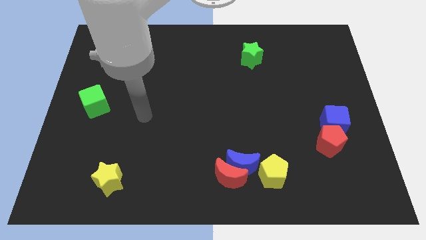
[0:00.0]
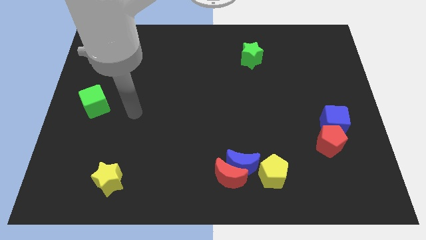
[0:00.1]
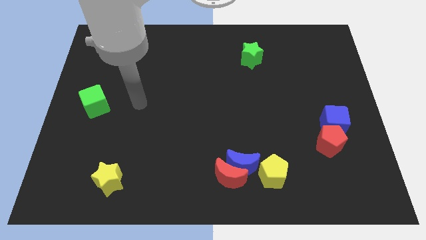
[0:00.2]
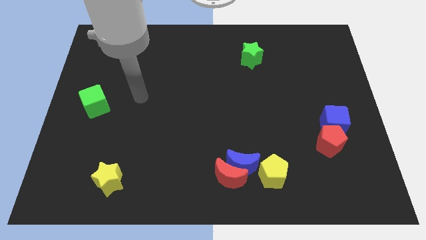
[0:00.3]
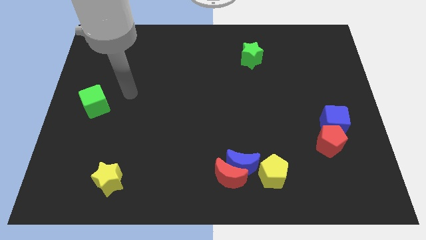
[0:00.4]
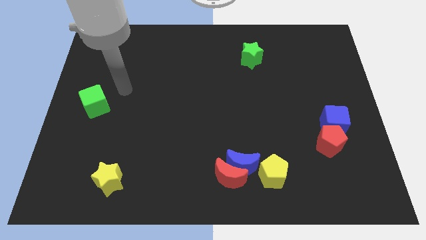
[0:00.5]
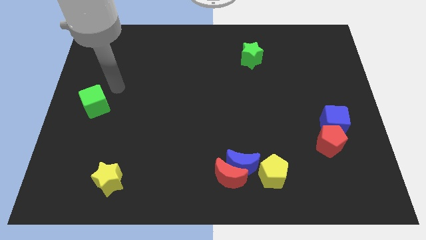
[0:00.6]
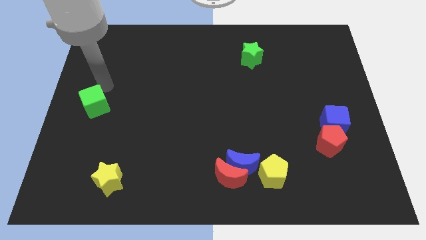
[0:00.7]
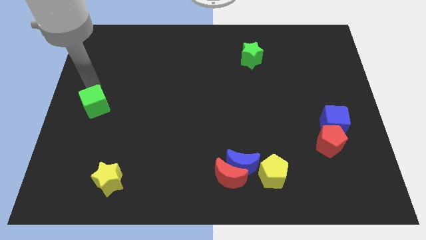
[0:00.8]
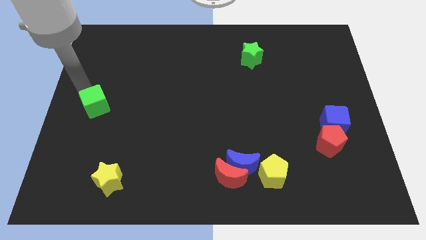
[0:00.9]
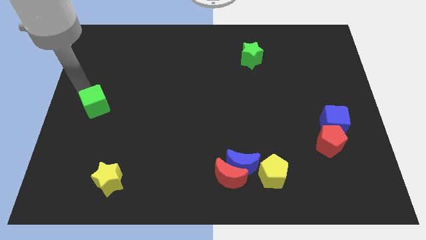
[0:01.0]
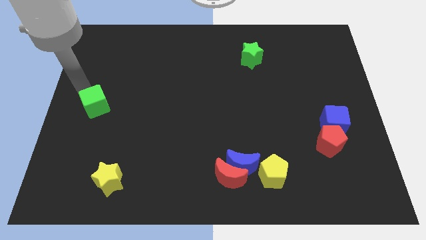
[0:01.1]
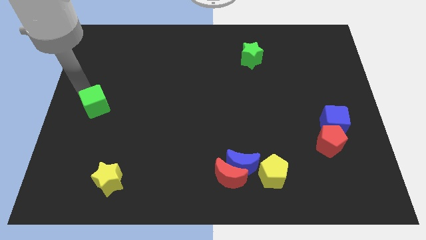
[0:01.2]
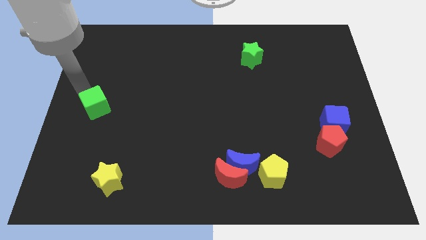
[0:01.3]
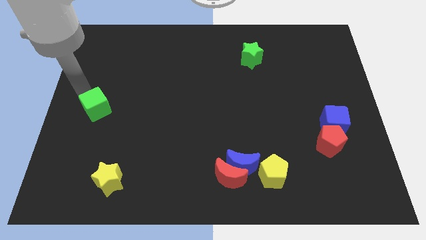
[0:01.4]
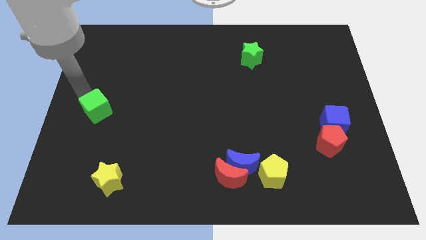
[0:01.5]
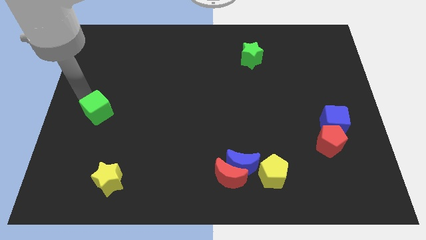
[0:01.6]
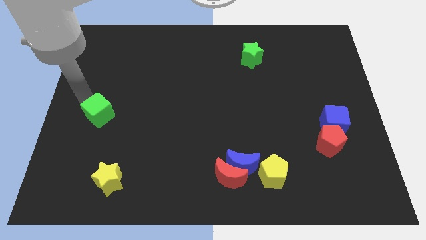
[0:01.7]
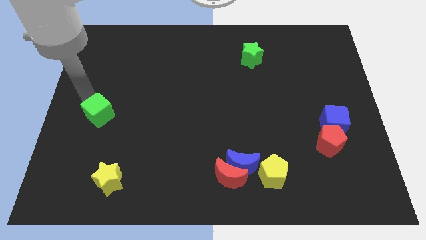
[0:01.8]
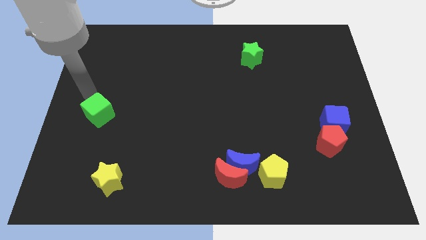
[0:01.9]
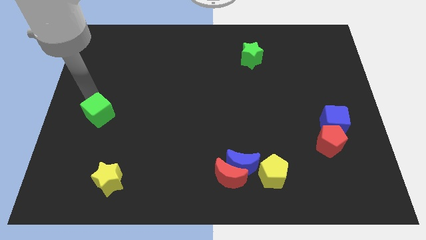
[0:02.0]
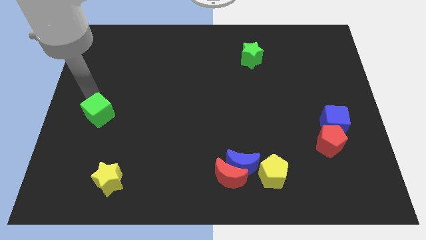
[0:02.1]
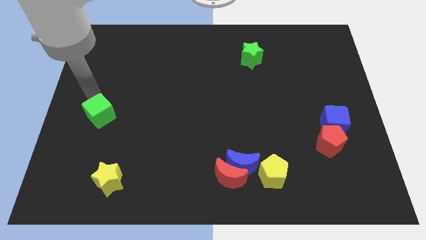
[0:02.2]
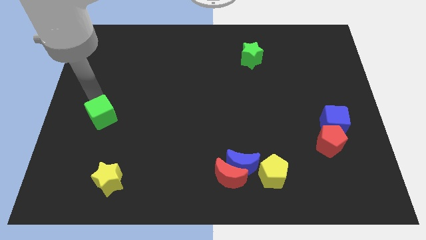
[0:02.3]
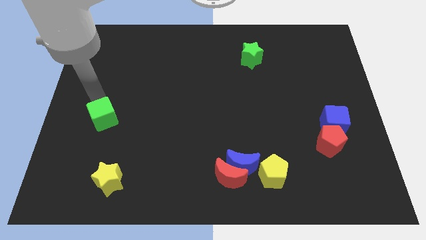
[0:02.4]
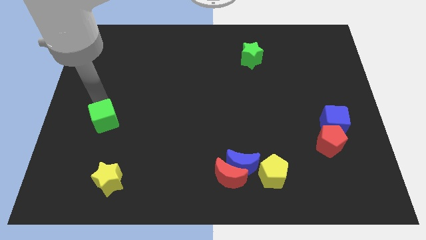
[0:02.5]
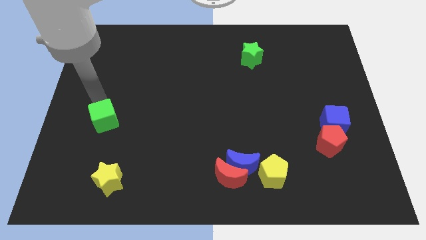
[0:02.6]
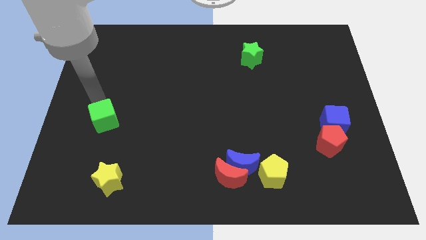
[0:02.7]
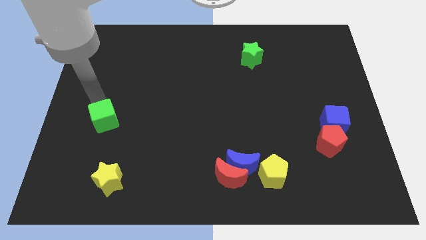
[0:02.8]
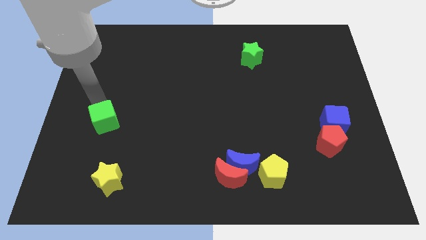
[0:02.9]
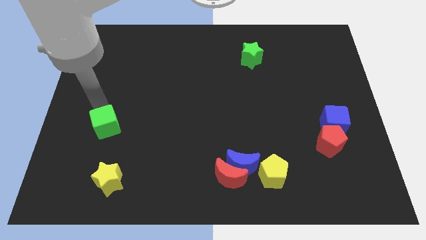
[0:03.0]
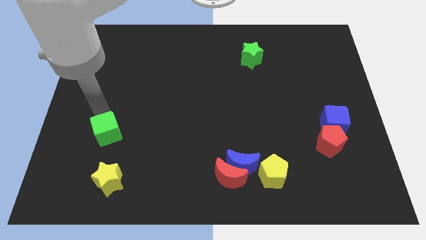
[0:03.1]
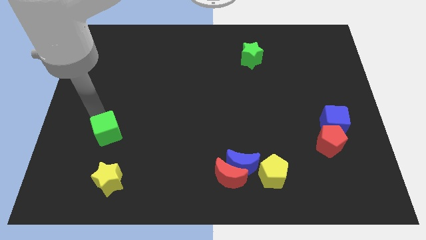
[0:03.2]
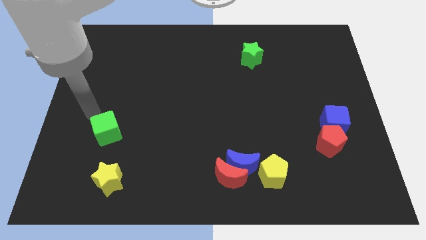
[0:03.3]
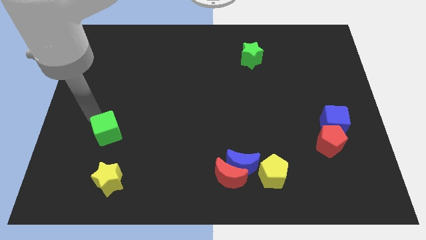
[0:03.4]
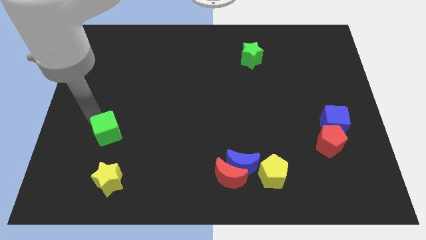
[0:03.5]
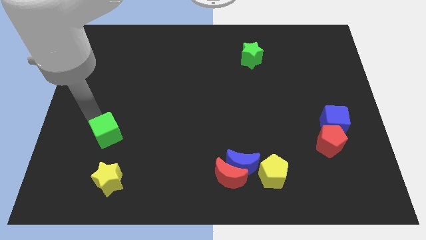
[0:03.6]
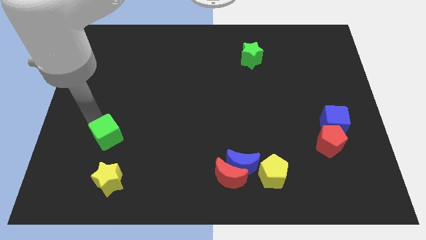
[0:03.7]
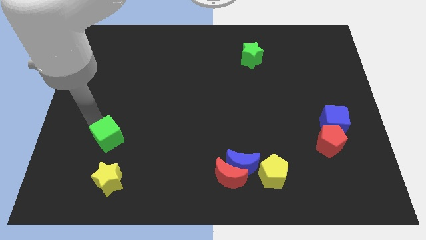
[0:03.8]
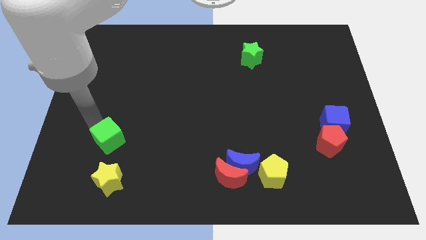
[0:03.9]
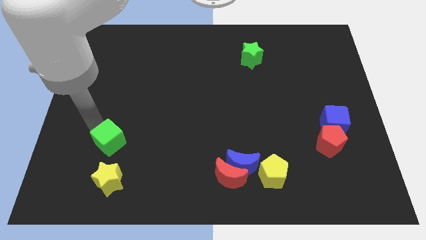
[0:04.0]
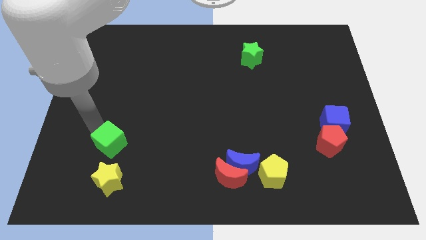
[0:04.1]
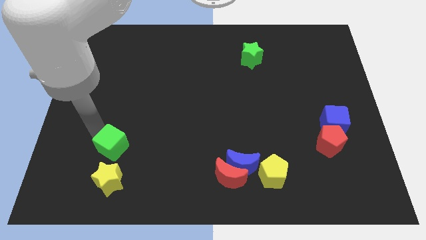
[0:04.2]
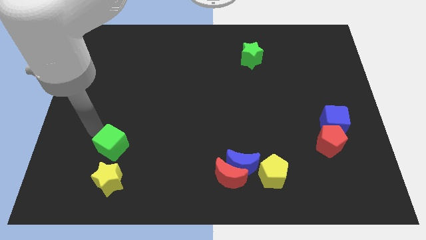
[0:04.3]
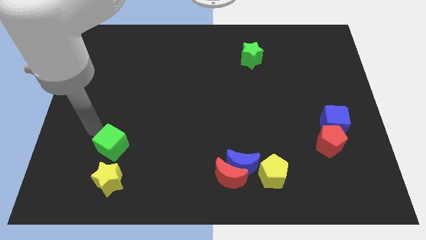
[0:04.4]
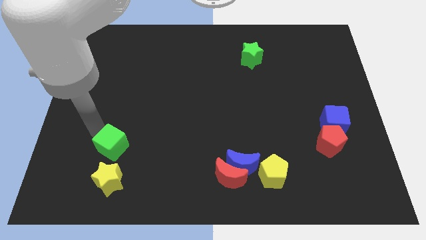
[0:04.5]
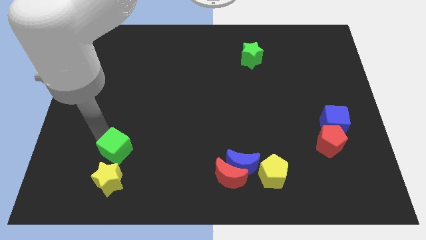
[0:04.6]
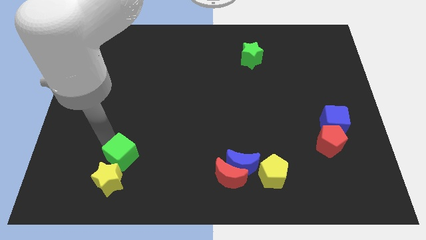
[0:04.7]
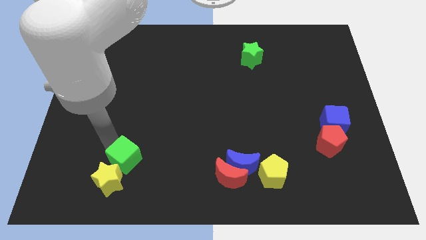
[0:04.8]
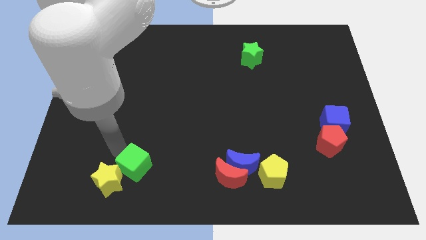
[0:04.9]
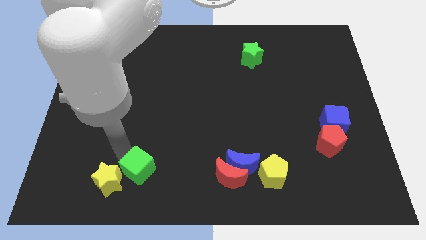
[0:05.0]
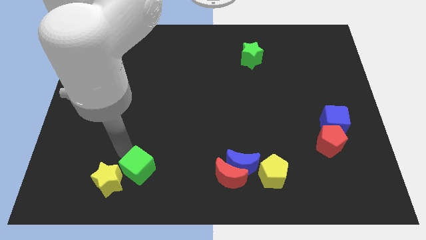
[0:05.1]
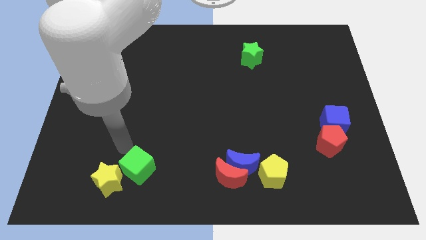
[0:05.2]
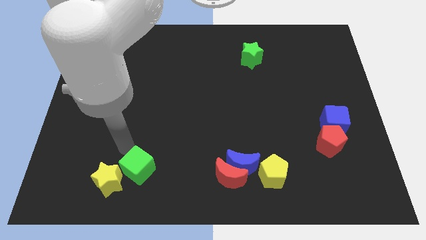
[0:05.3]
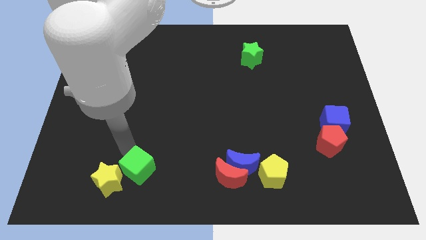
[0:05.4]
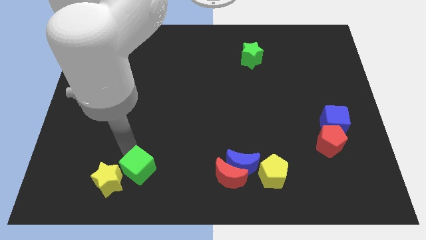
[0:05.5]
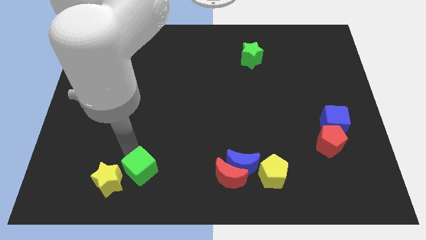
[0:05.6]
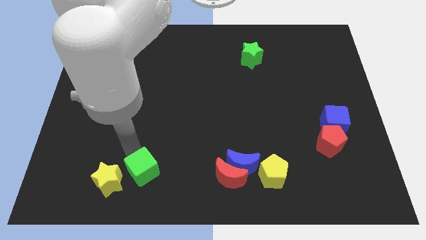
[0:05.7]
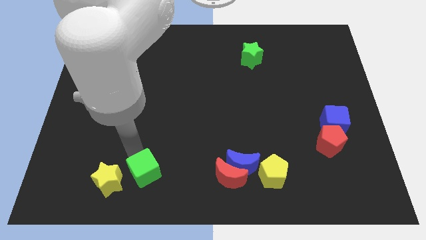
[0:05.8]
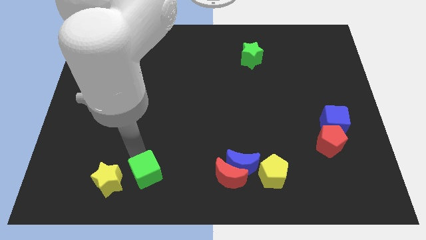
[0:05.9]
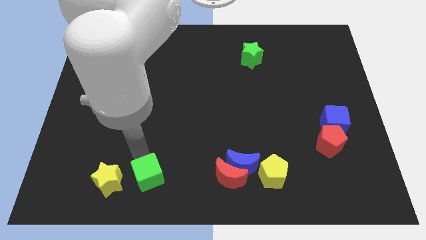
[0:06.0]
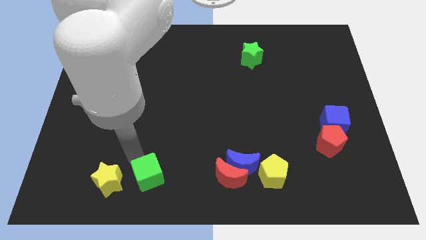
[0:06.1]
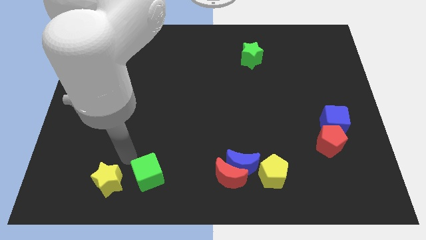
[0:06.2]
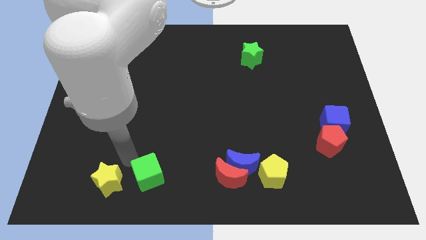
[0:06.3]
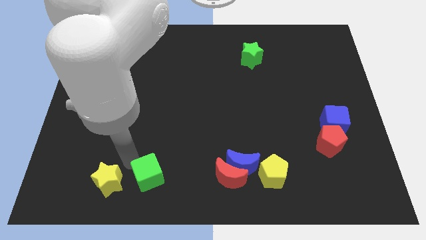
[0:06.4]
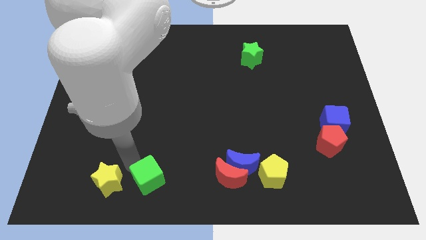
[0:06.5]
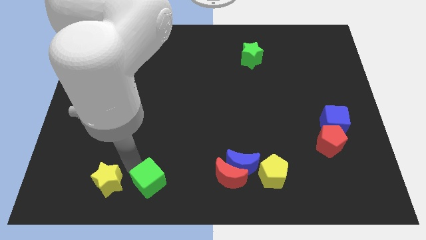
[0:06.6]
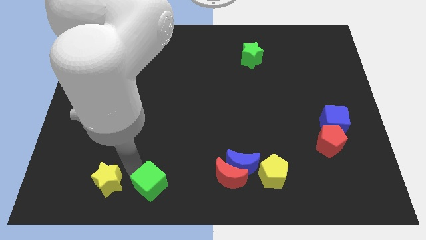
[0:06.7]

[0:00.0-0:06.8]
push the green cube to the bottom side

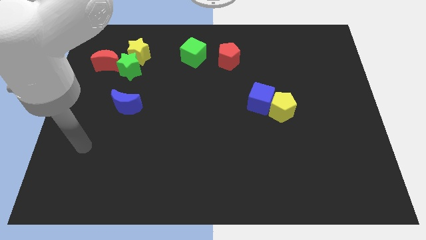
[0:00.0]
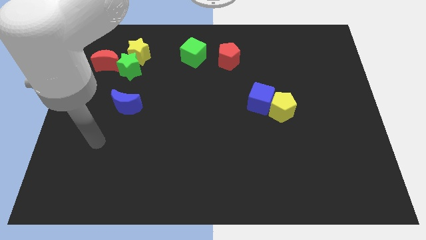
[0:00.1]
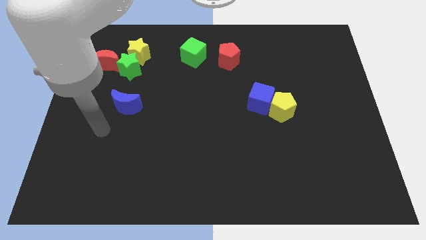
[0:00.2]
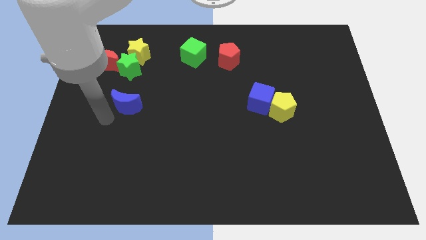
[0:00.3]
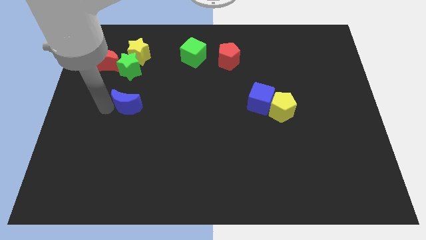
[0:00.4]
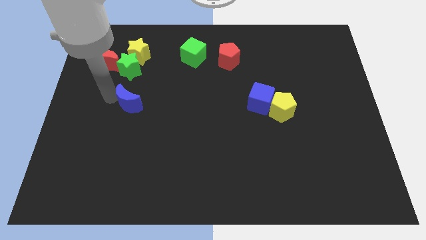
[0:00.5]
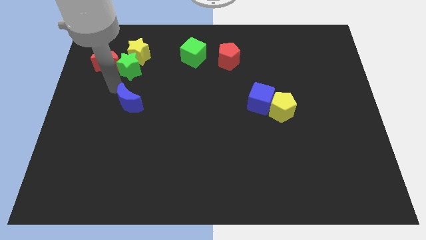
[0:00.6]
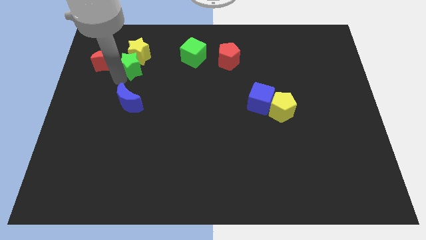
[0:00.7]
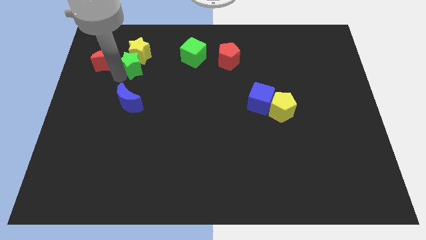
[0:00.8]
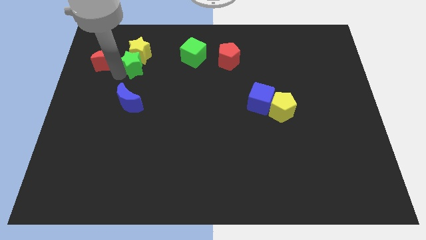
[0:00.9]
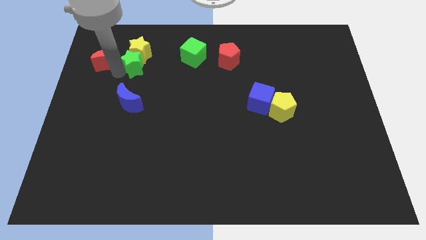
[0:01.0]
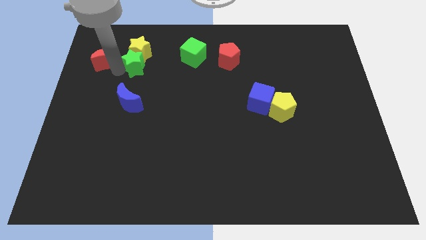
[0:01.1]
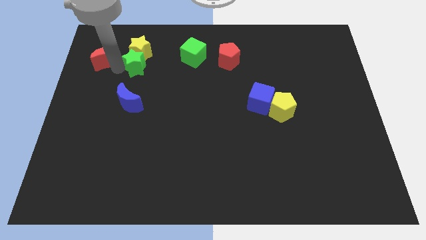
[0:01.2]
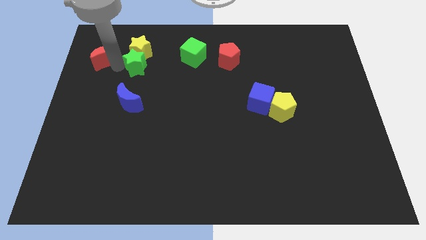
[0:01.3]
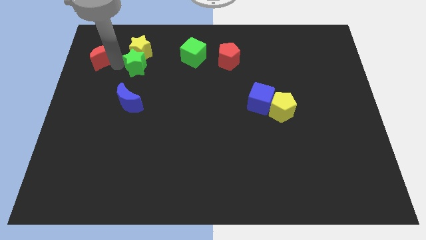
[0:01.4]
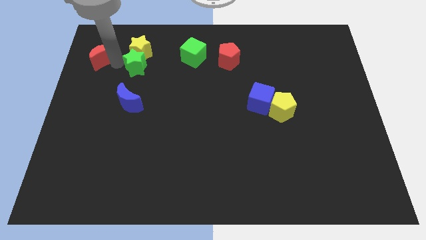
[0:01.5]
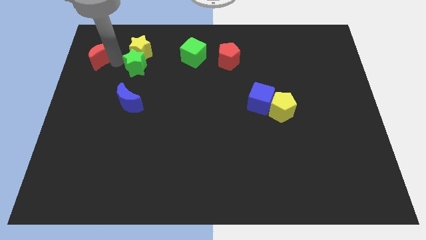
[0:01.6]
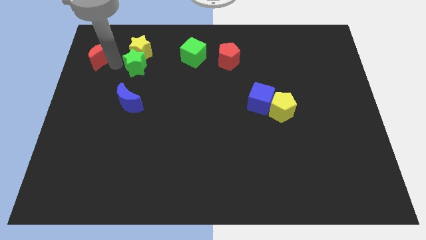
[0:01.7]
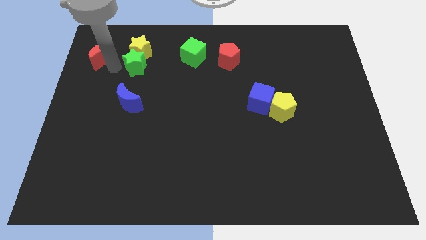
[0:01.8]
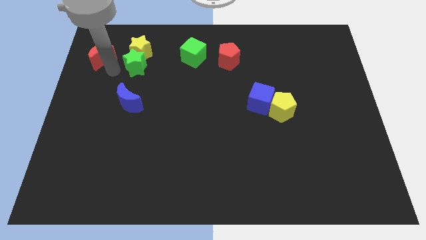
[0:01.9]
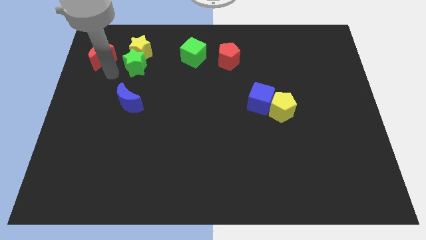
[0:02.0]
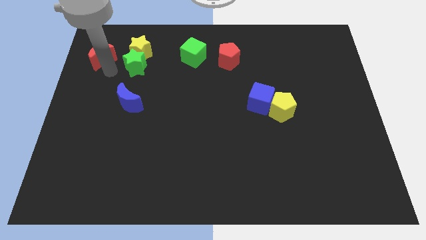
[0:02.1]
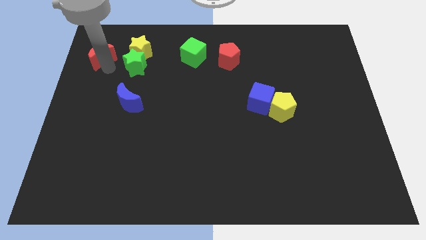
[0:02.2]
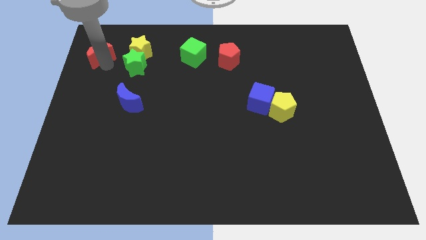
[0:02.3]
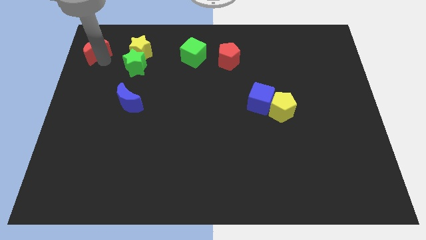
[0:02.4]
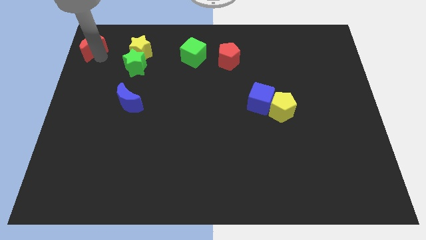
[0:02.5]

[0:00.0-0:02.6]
move the red moon to the top left corner
